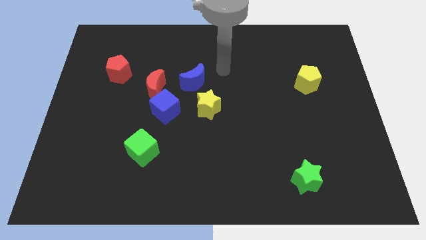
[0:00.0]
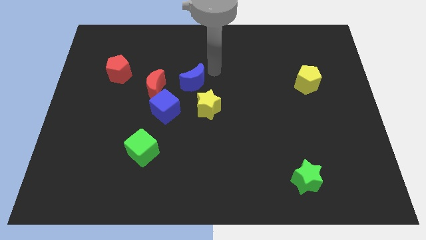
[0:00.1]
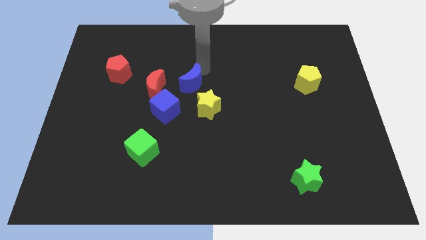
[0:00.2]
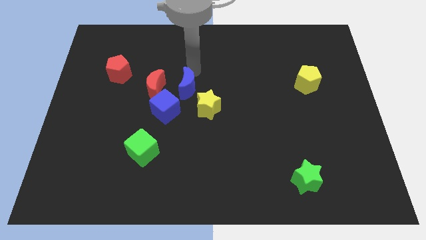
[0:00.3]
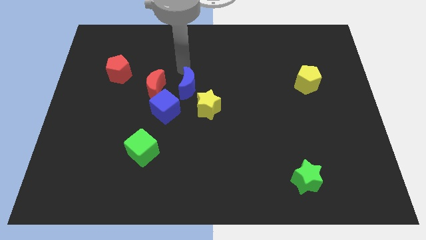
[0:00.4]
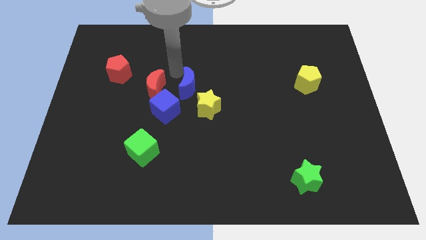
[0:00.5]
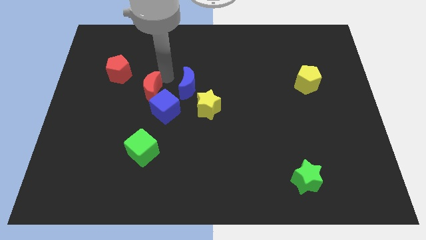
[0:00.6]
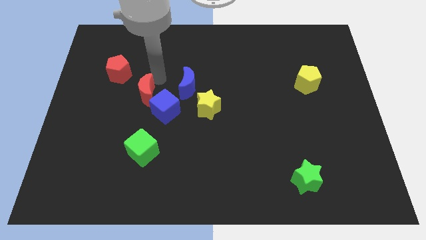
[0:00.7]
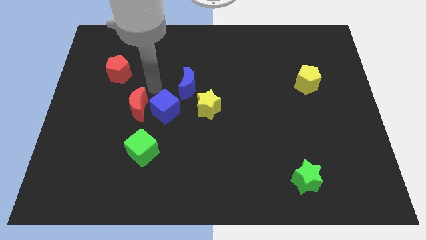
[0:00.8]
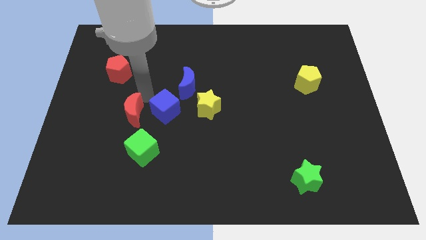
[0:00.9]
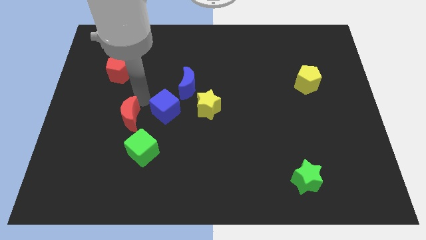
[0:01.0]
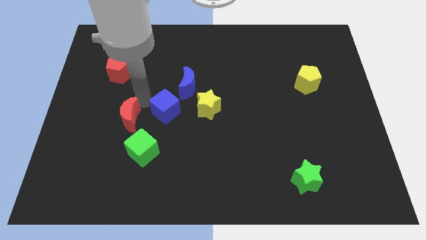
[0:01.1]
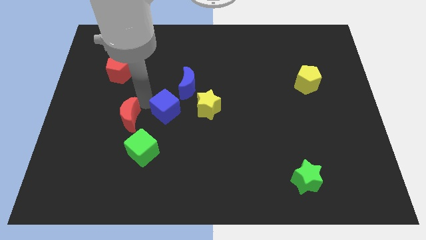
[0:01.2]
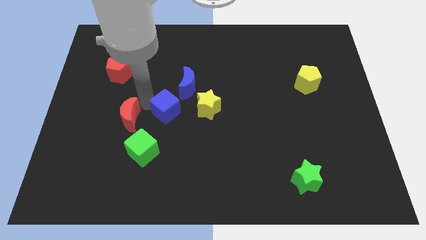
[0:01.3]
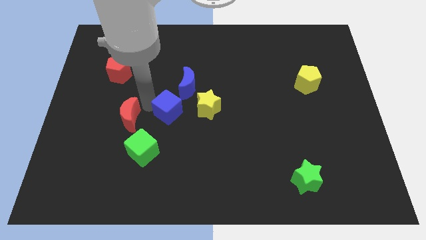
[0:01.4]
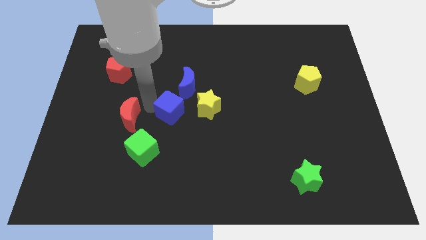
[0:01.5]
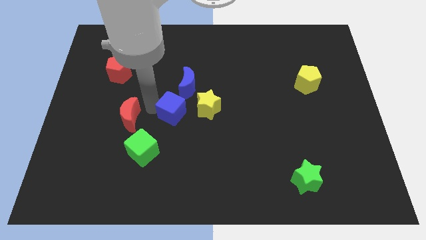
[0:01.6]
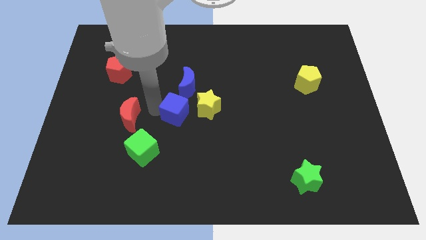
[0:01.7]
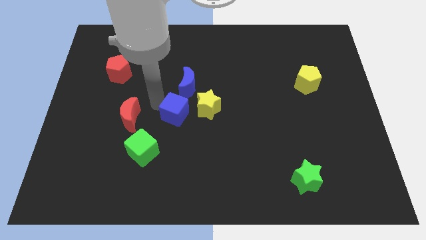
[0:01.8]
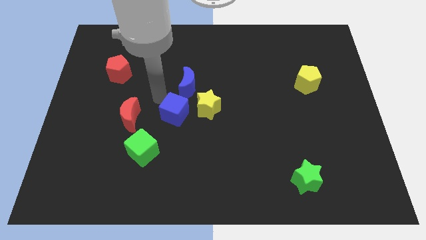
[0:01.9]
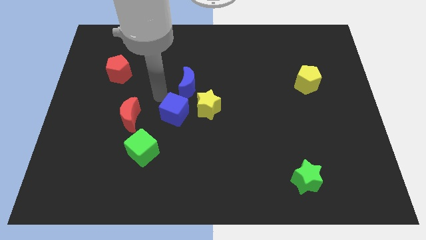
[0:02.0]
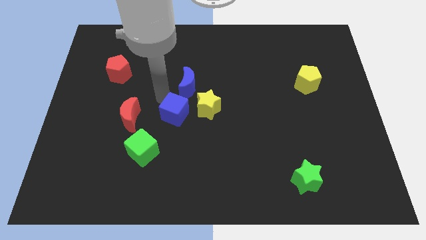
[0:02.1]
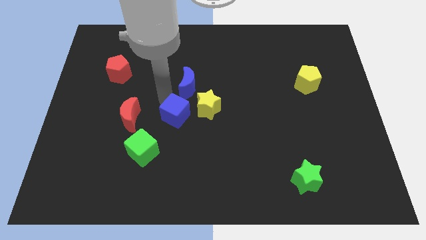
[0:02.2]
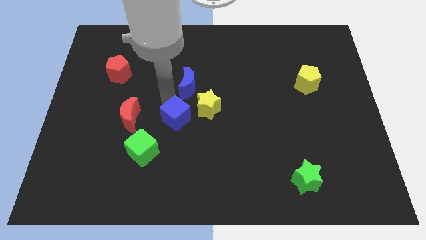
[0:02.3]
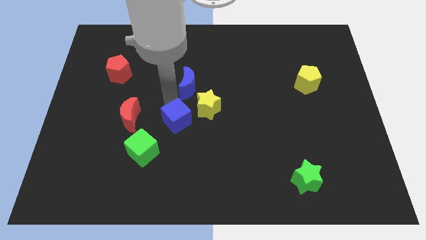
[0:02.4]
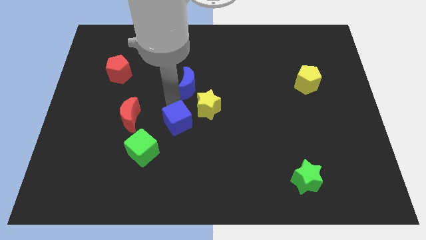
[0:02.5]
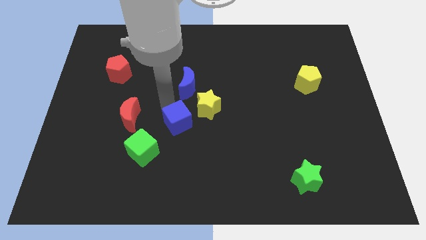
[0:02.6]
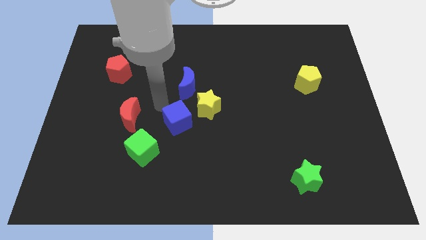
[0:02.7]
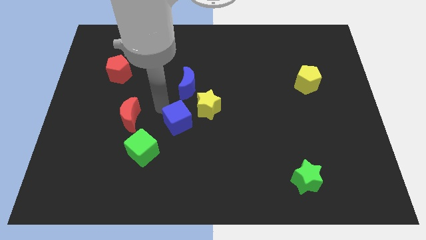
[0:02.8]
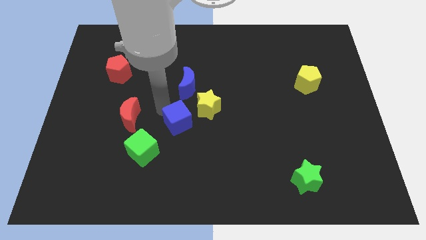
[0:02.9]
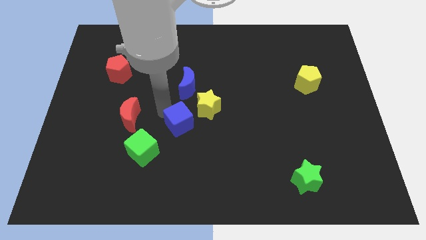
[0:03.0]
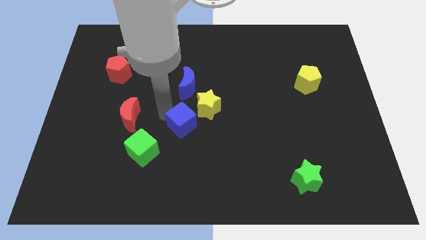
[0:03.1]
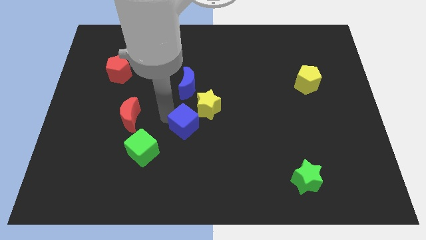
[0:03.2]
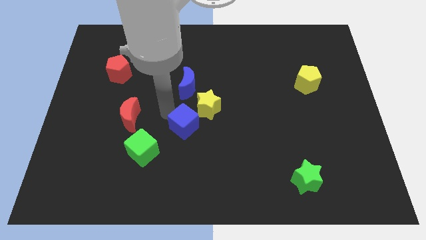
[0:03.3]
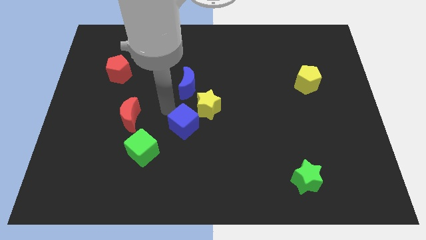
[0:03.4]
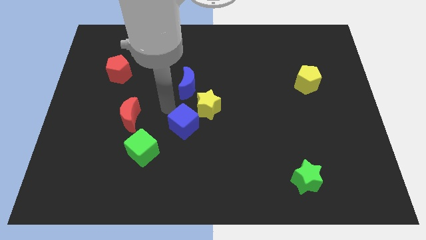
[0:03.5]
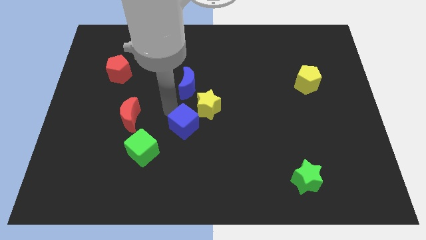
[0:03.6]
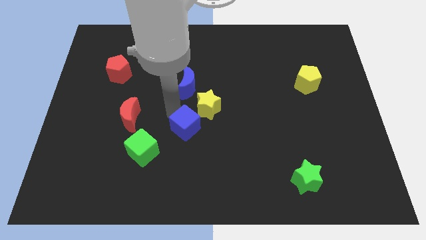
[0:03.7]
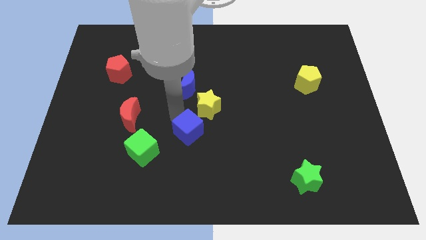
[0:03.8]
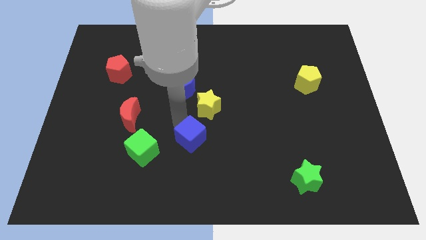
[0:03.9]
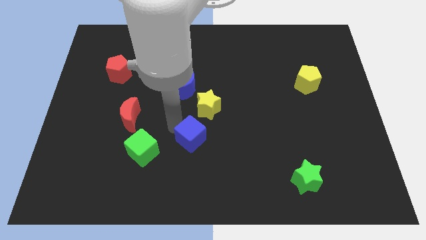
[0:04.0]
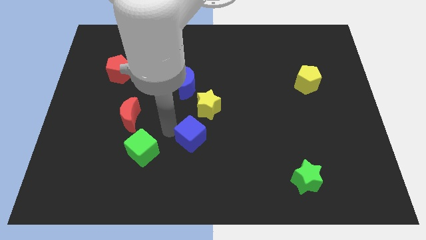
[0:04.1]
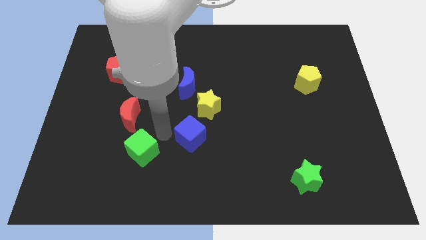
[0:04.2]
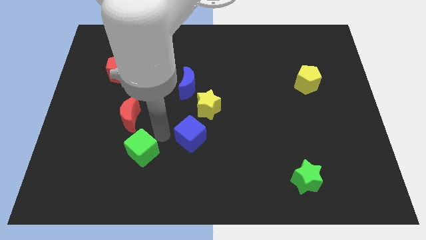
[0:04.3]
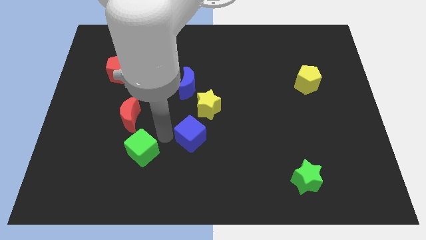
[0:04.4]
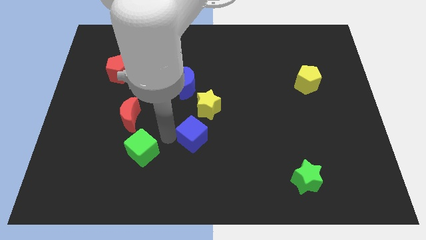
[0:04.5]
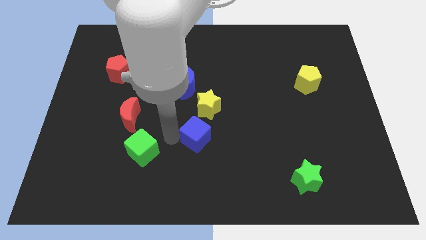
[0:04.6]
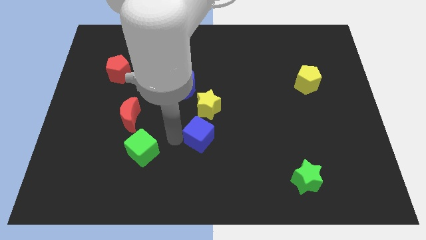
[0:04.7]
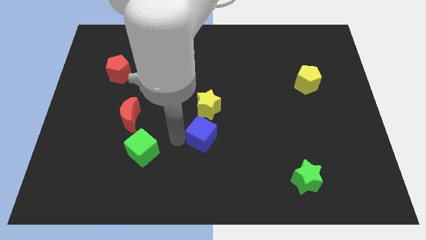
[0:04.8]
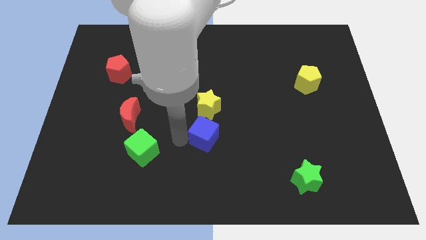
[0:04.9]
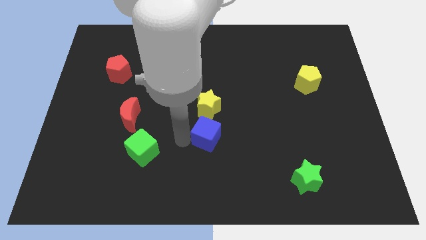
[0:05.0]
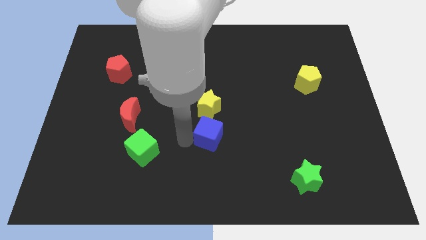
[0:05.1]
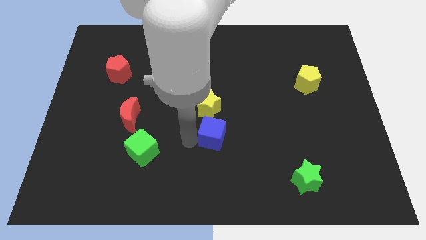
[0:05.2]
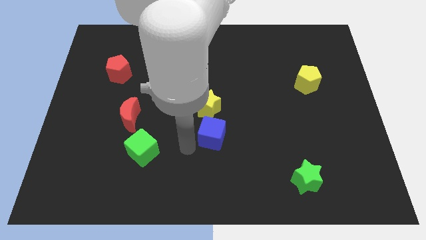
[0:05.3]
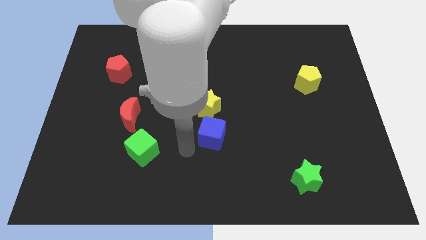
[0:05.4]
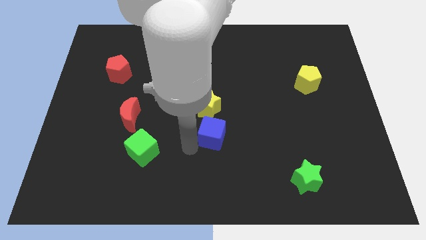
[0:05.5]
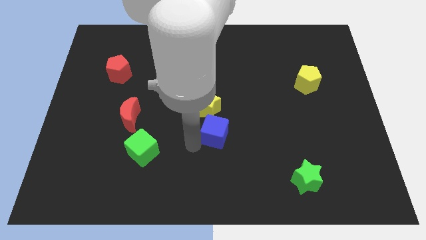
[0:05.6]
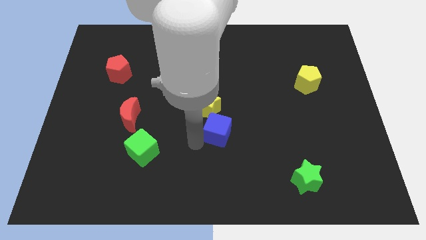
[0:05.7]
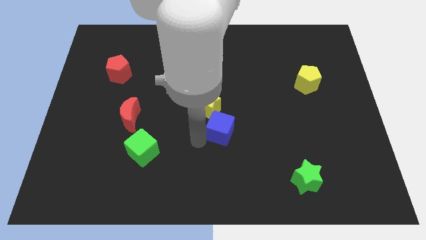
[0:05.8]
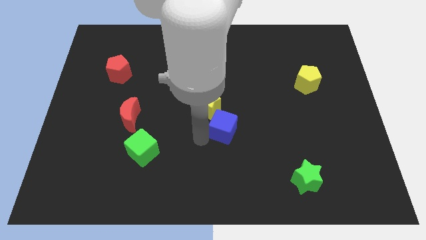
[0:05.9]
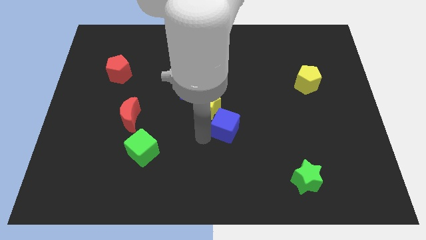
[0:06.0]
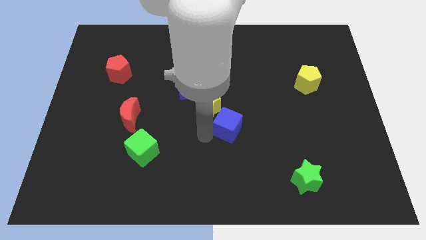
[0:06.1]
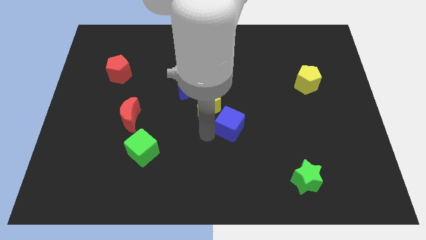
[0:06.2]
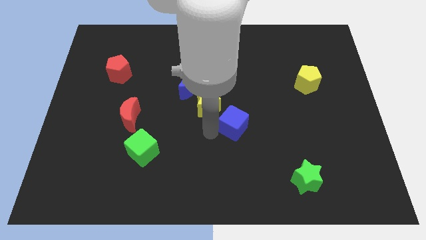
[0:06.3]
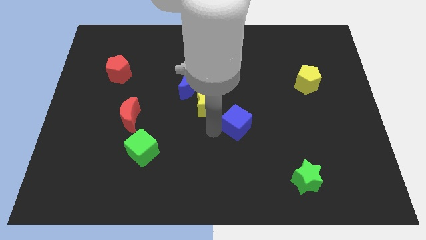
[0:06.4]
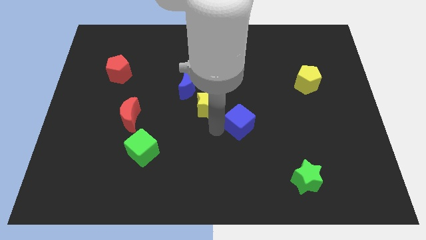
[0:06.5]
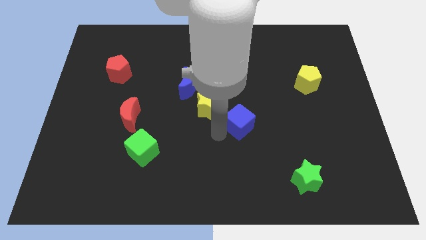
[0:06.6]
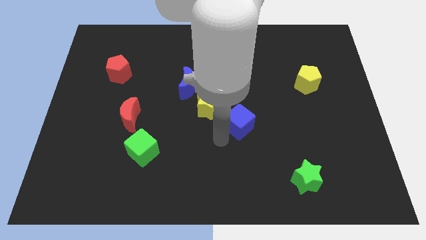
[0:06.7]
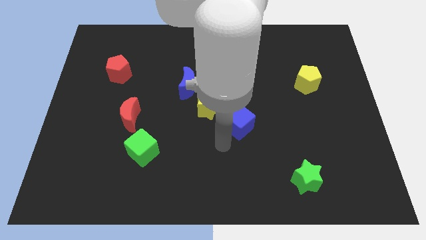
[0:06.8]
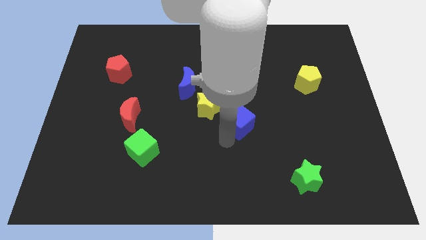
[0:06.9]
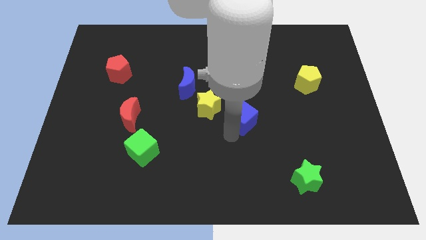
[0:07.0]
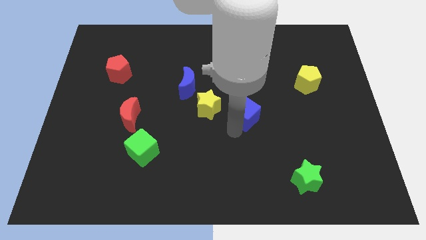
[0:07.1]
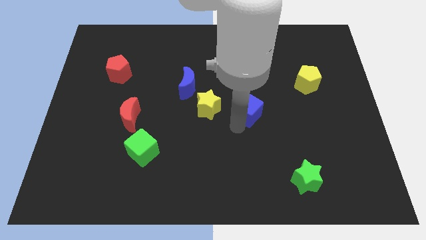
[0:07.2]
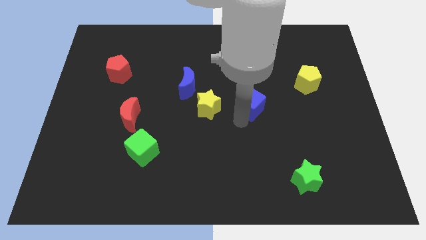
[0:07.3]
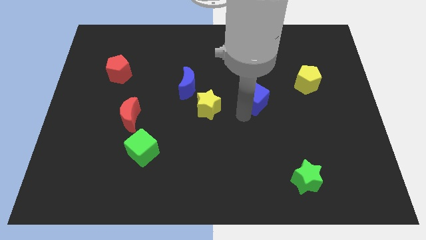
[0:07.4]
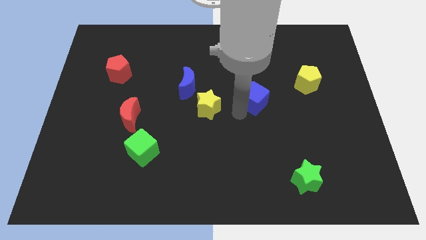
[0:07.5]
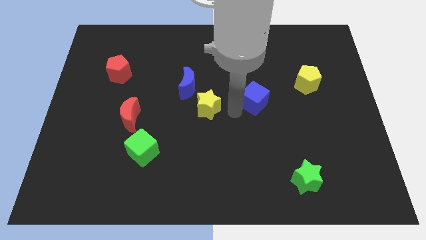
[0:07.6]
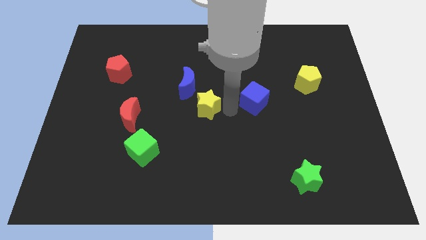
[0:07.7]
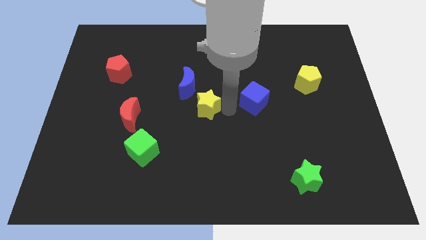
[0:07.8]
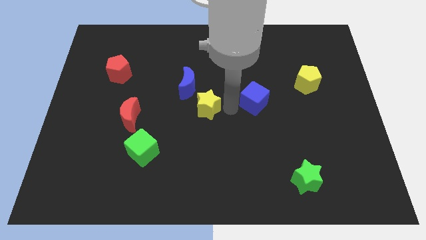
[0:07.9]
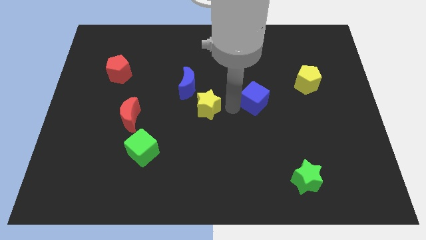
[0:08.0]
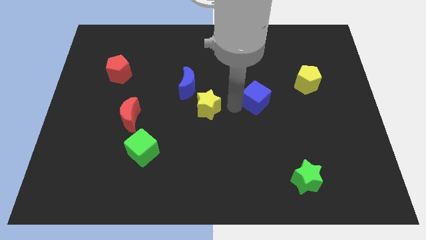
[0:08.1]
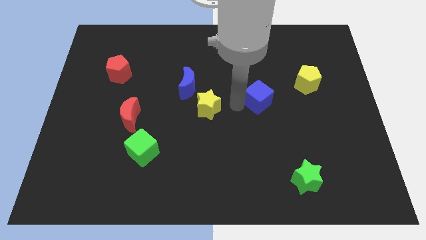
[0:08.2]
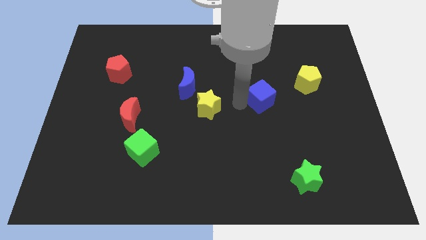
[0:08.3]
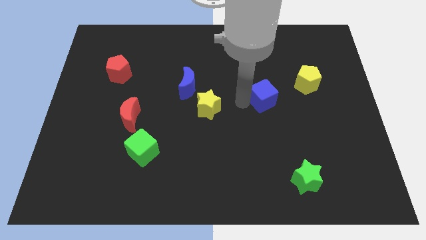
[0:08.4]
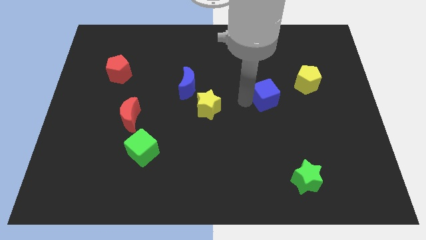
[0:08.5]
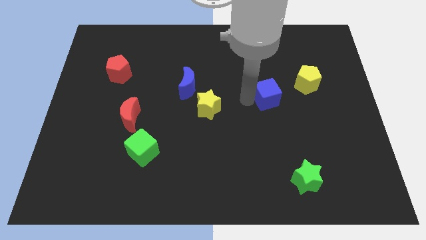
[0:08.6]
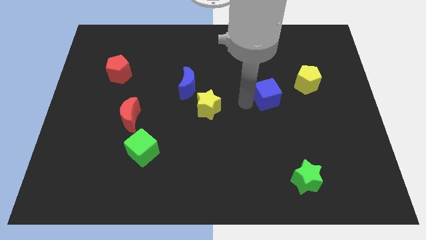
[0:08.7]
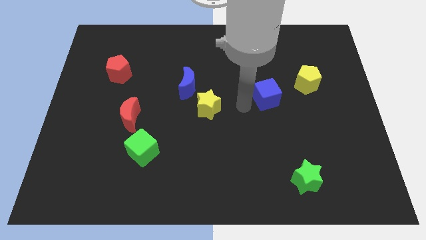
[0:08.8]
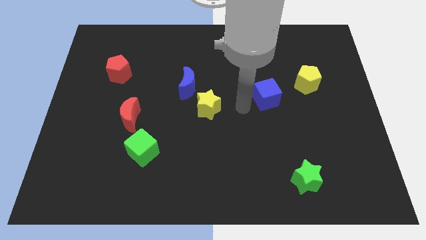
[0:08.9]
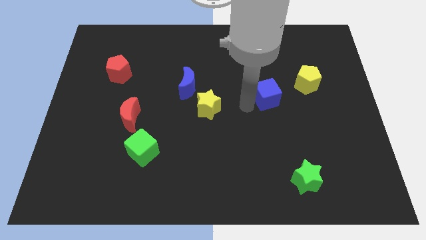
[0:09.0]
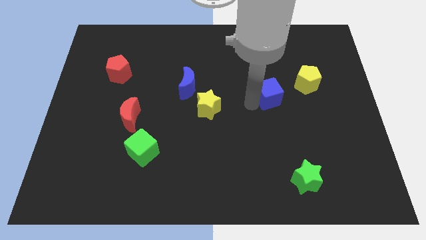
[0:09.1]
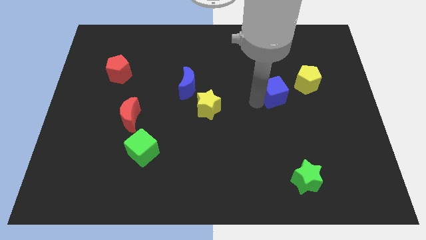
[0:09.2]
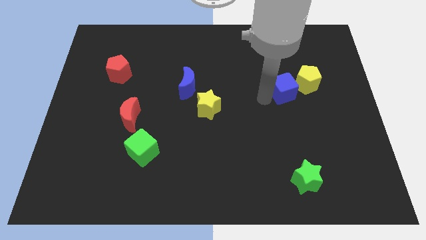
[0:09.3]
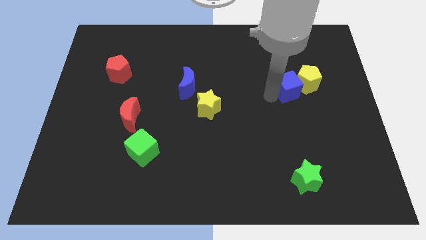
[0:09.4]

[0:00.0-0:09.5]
put the blue cube close to the yellow pentagon
